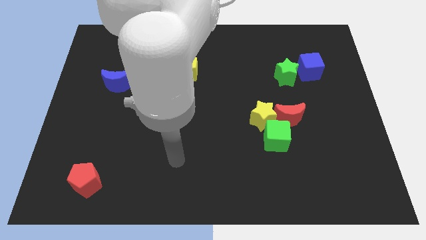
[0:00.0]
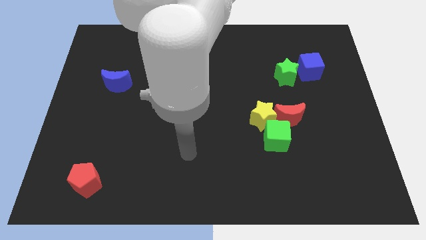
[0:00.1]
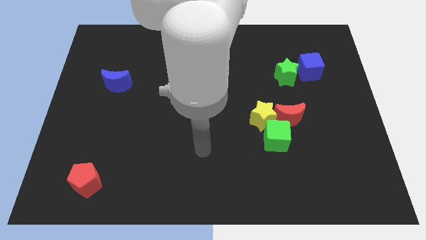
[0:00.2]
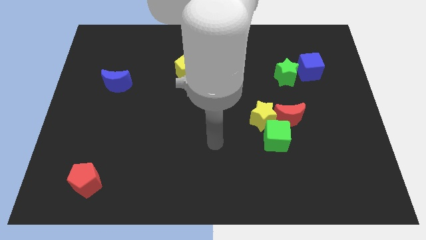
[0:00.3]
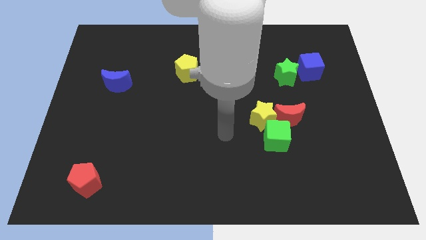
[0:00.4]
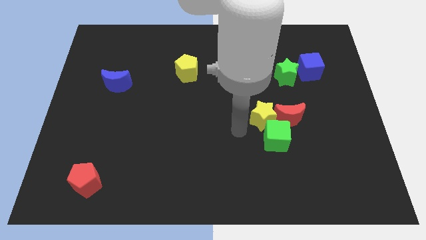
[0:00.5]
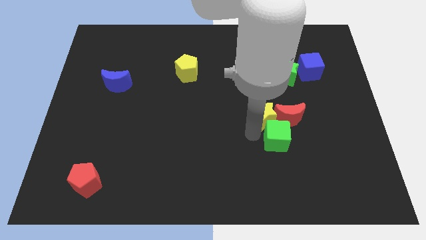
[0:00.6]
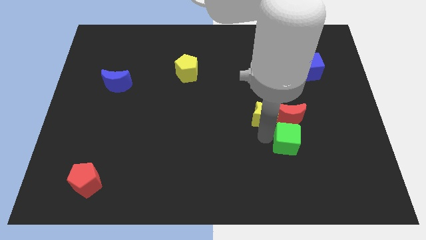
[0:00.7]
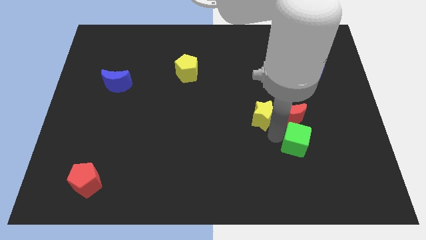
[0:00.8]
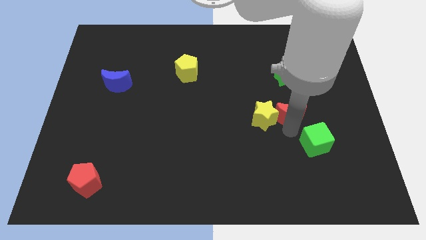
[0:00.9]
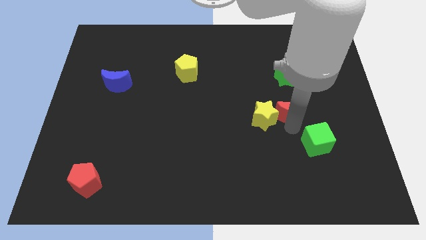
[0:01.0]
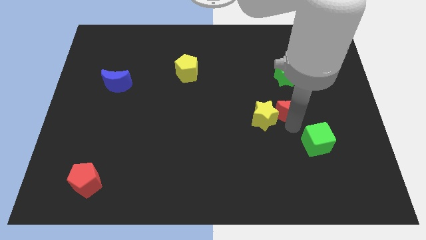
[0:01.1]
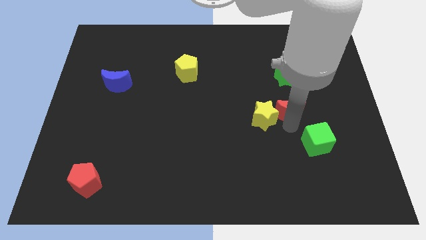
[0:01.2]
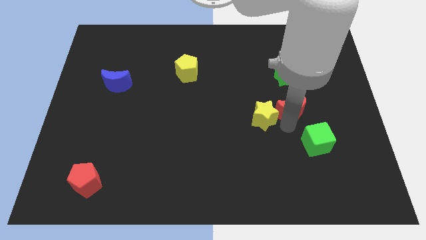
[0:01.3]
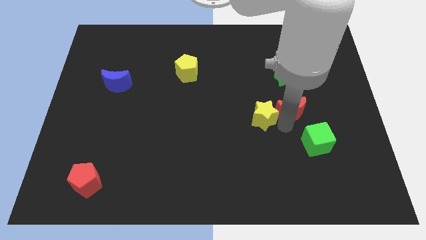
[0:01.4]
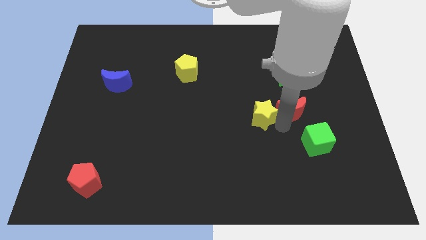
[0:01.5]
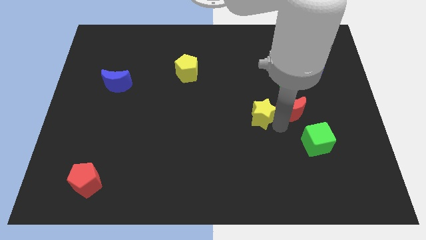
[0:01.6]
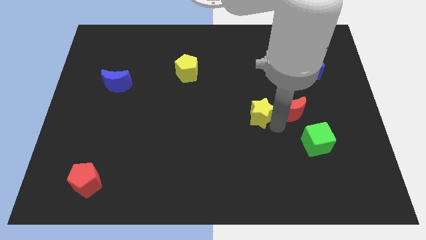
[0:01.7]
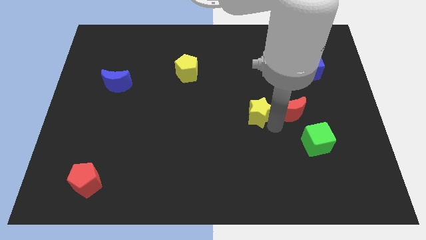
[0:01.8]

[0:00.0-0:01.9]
move the yellow star away from the green cube and red moon

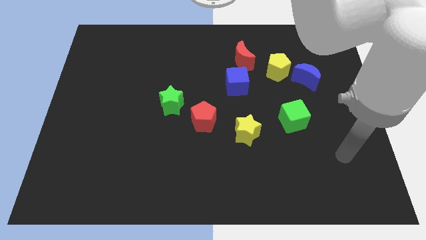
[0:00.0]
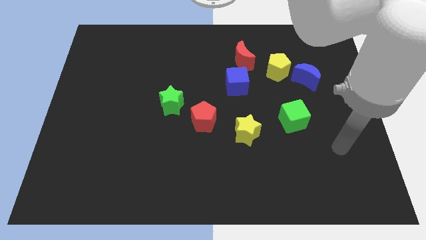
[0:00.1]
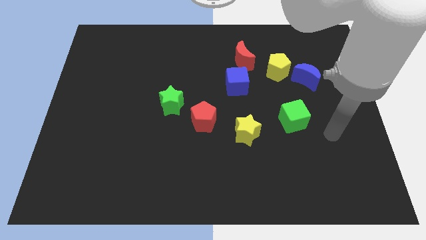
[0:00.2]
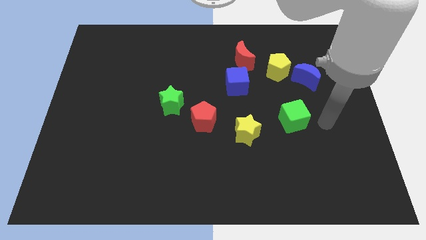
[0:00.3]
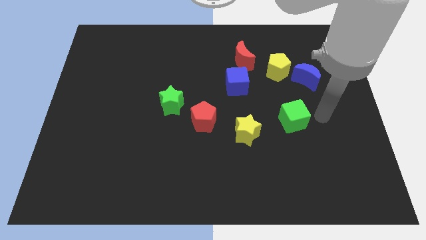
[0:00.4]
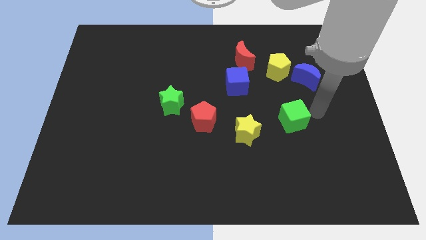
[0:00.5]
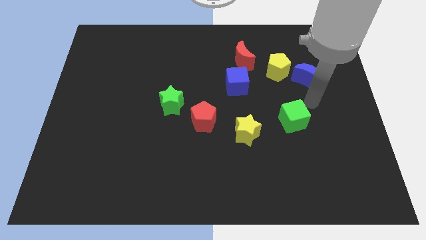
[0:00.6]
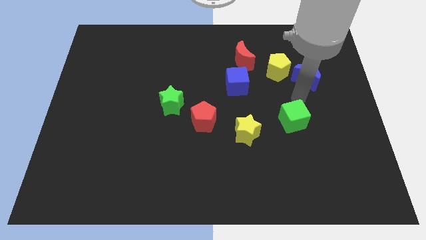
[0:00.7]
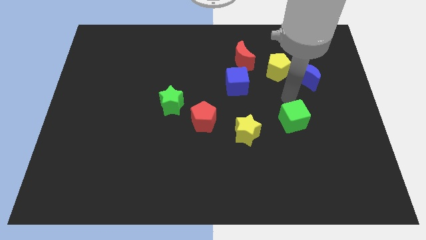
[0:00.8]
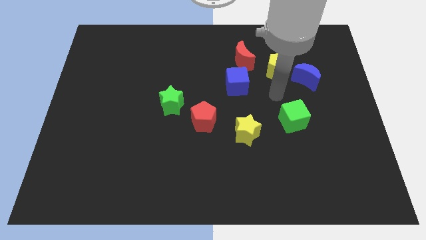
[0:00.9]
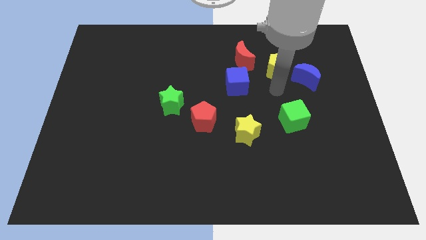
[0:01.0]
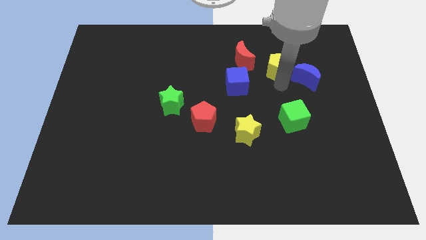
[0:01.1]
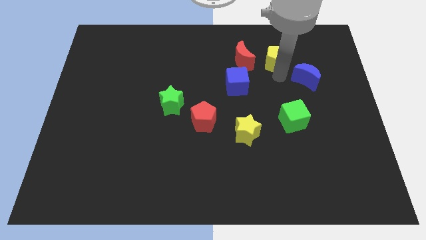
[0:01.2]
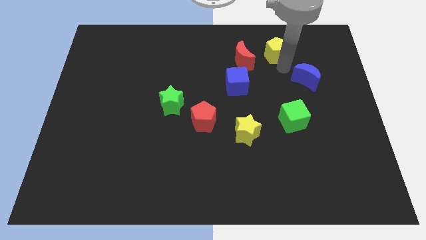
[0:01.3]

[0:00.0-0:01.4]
separate the blue moon from the yellow pentagon

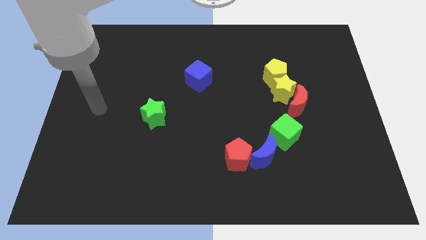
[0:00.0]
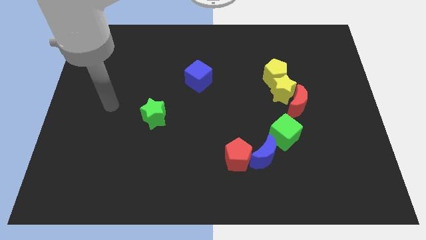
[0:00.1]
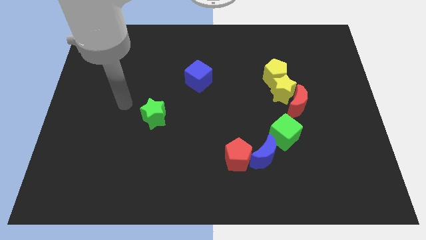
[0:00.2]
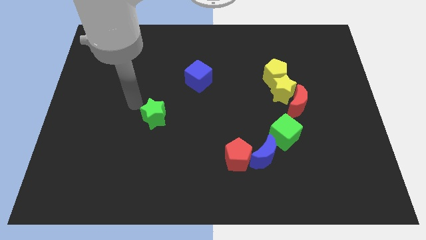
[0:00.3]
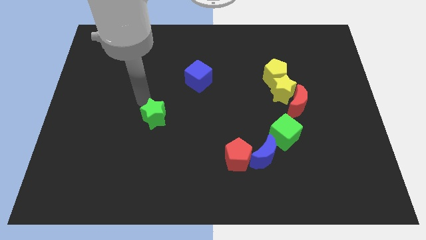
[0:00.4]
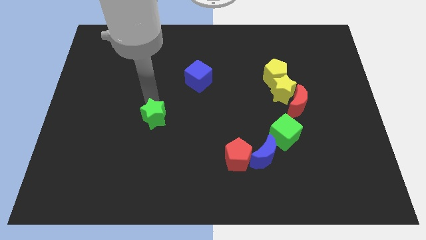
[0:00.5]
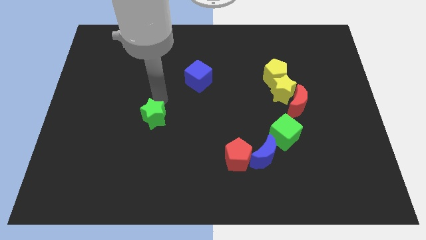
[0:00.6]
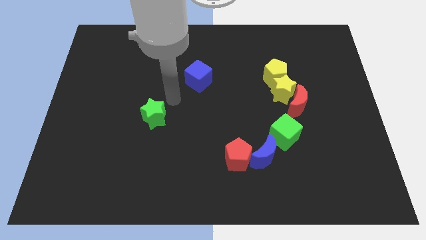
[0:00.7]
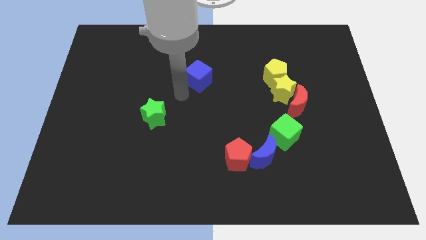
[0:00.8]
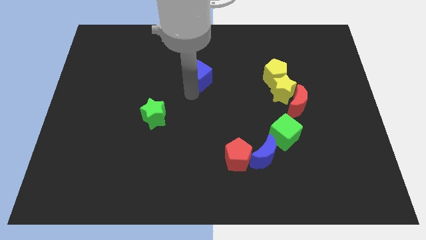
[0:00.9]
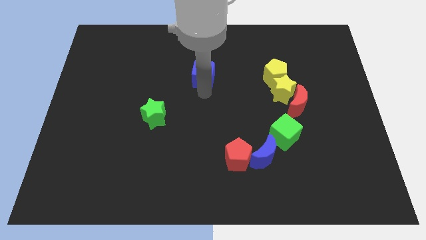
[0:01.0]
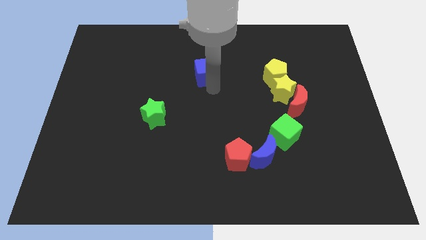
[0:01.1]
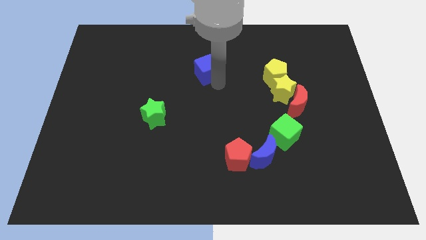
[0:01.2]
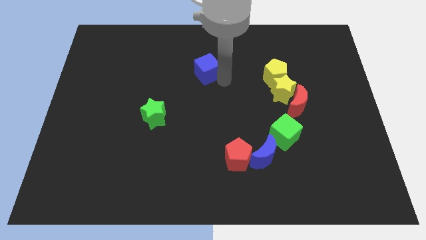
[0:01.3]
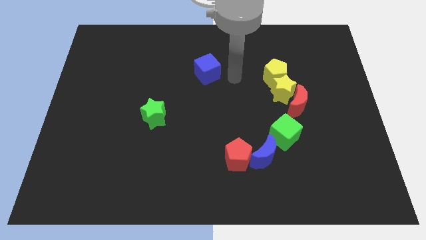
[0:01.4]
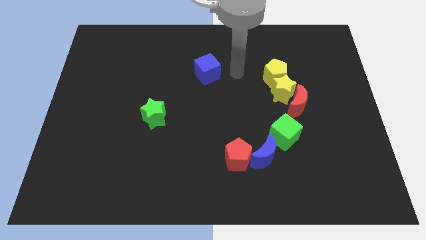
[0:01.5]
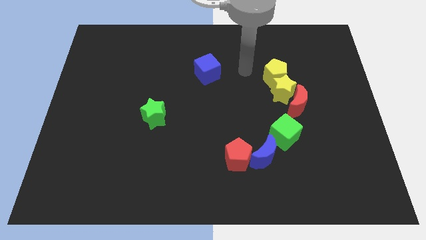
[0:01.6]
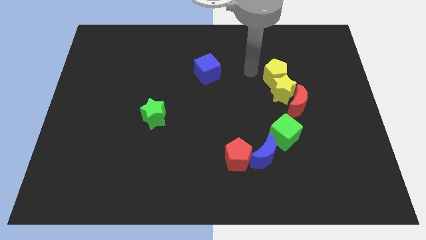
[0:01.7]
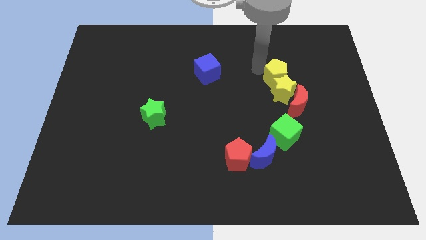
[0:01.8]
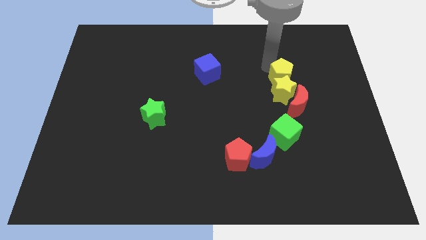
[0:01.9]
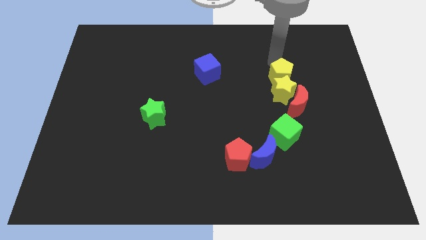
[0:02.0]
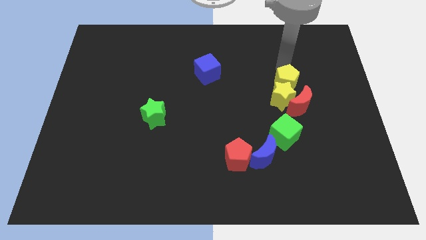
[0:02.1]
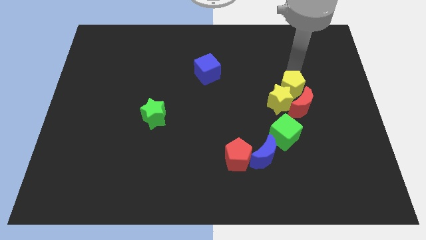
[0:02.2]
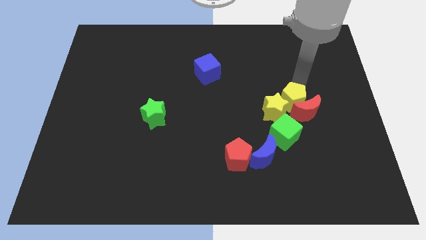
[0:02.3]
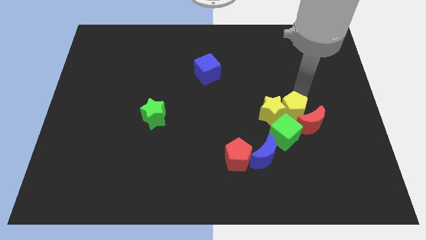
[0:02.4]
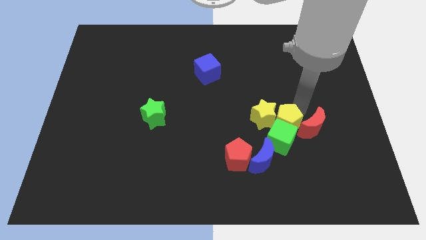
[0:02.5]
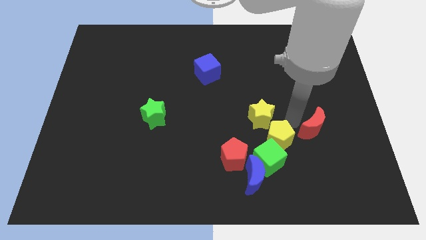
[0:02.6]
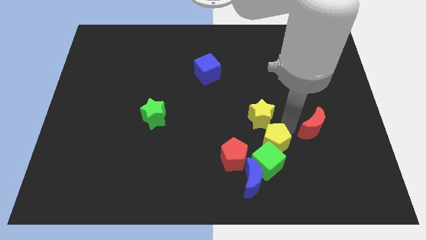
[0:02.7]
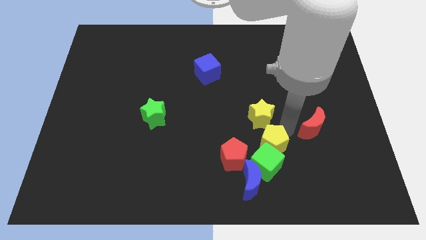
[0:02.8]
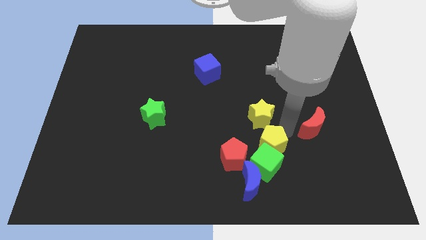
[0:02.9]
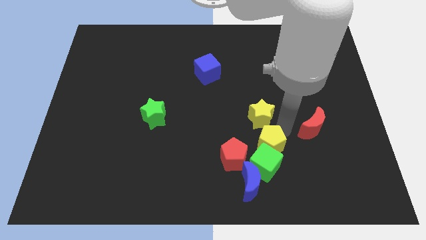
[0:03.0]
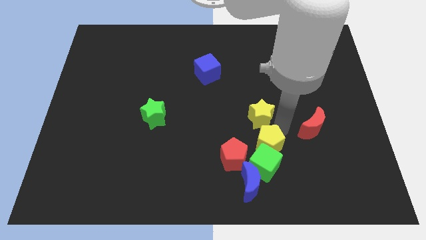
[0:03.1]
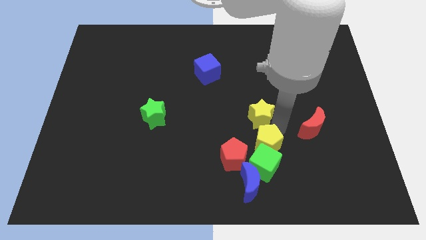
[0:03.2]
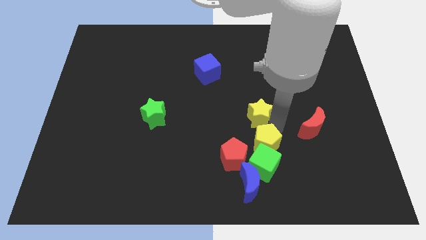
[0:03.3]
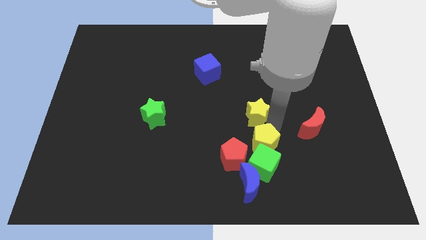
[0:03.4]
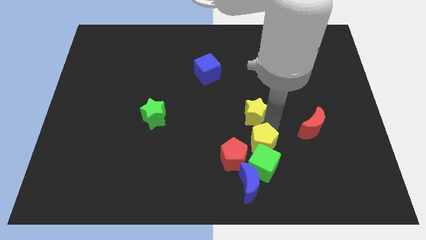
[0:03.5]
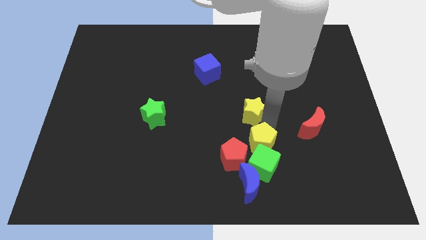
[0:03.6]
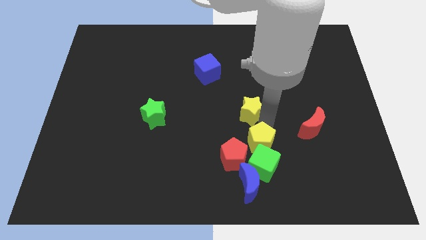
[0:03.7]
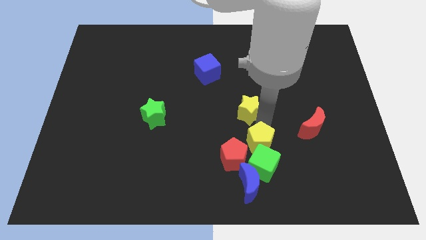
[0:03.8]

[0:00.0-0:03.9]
move the yellow star away from the red moon and yellow pentagon

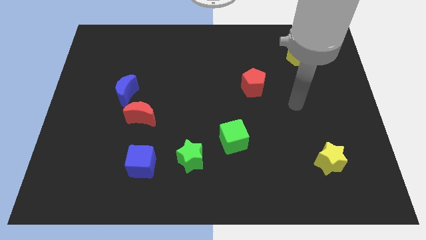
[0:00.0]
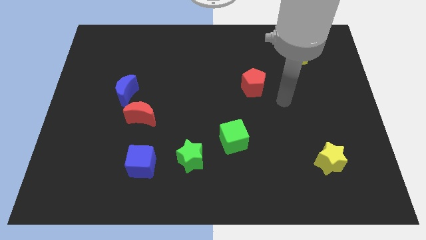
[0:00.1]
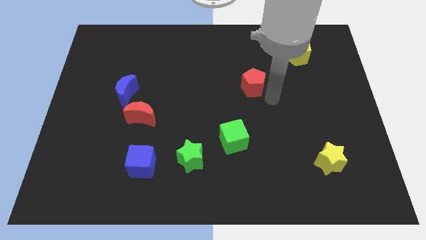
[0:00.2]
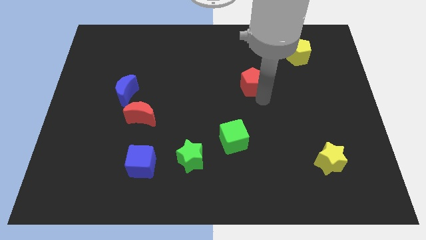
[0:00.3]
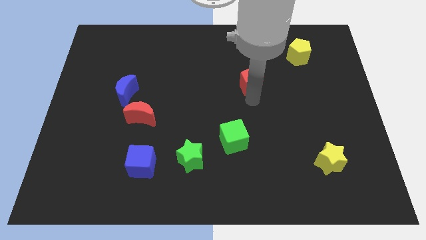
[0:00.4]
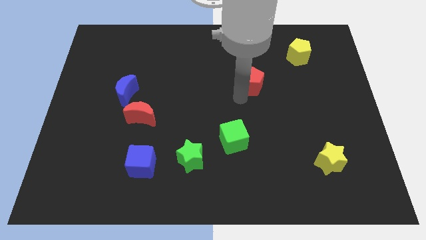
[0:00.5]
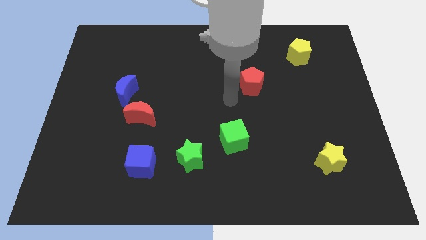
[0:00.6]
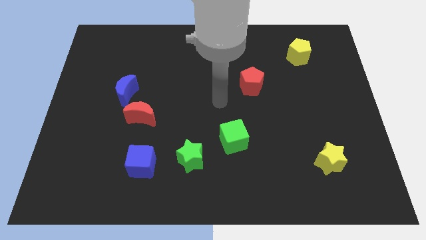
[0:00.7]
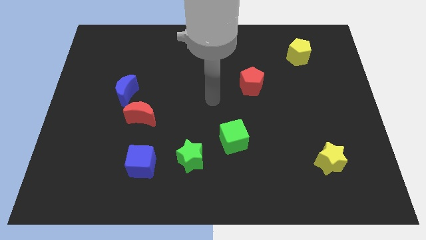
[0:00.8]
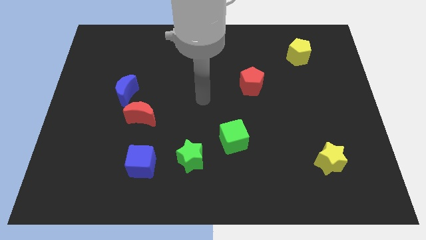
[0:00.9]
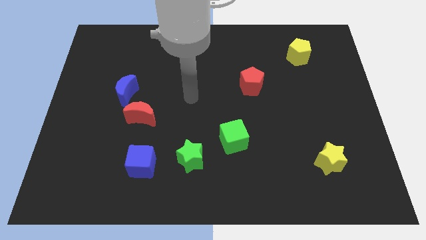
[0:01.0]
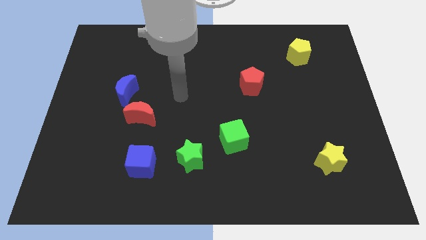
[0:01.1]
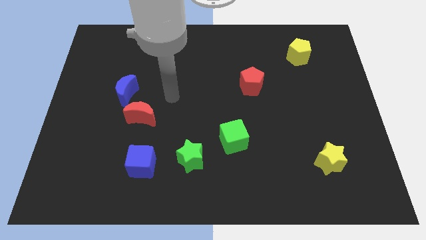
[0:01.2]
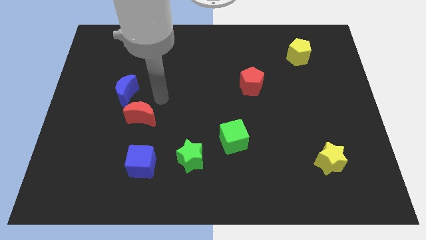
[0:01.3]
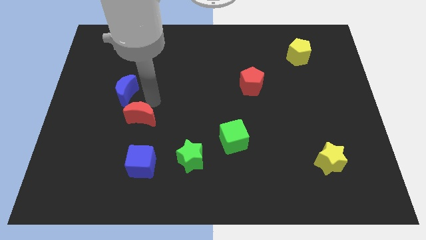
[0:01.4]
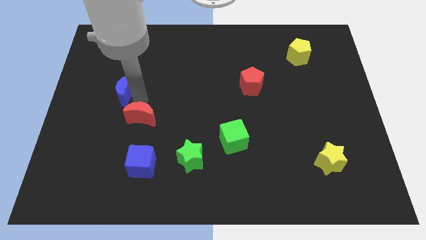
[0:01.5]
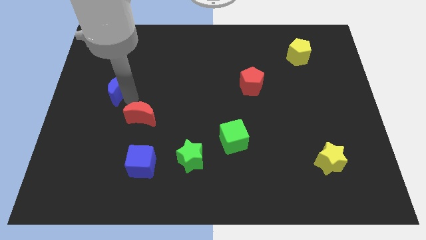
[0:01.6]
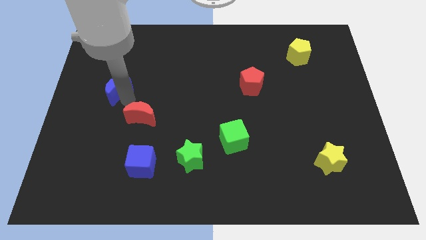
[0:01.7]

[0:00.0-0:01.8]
separate the red moon from the blue moon

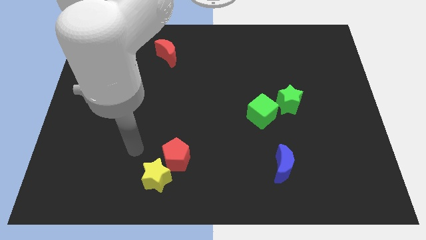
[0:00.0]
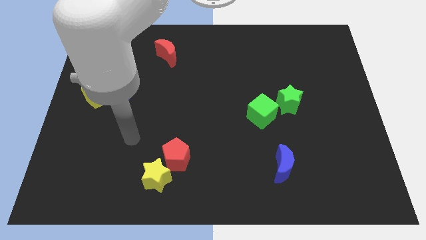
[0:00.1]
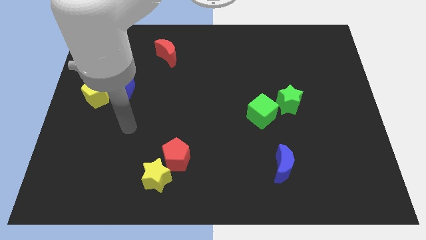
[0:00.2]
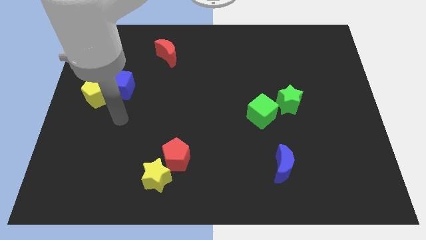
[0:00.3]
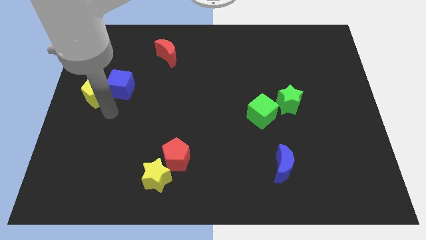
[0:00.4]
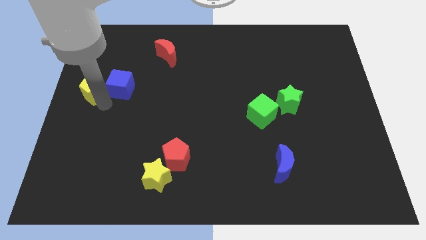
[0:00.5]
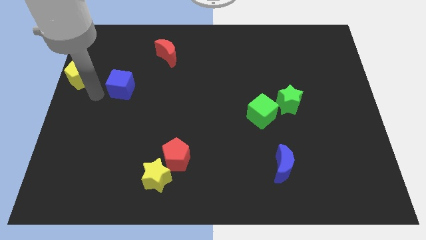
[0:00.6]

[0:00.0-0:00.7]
separate the blue cube from the yellow pentagon
